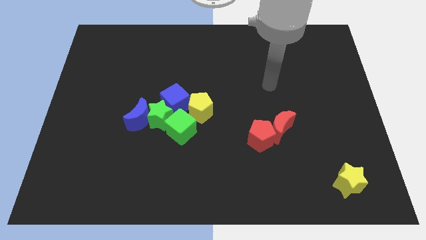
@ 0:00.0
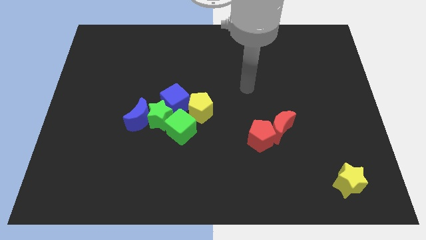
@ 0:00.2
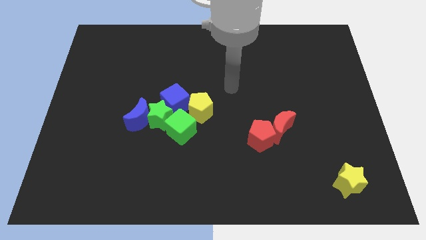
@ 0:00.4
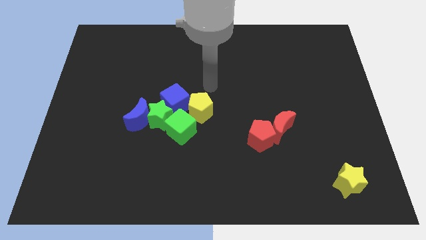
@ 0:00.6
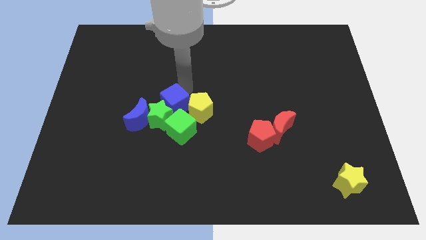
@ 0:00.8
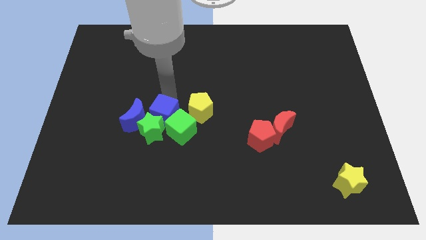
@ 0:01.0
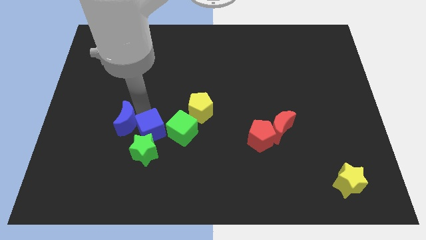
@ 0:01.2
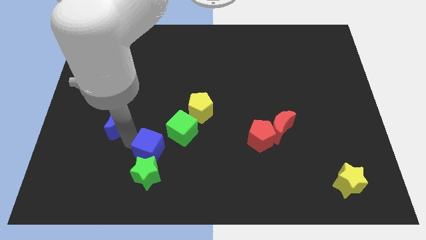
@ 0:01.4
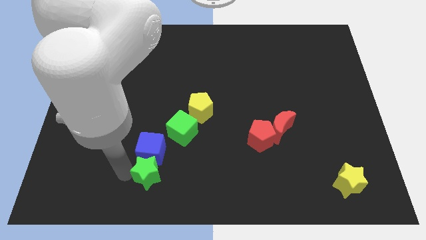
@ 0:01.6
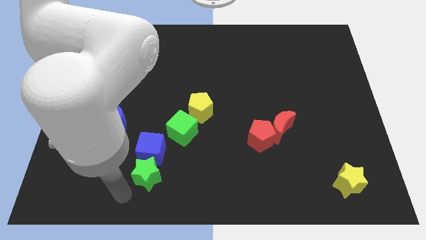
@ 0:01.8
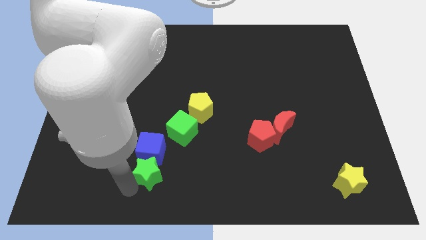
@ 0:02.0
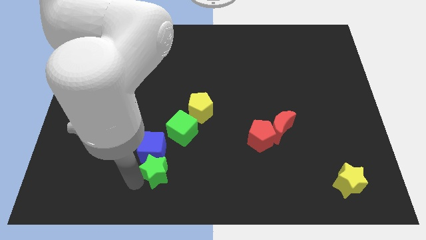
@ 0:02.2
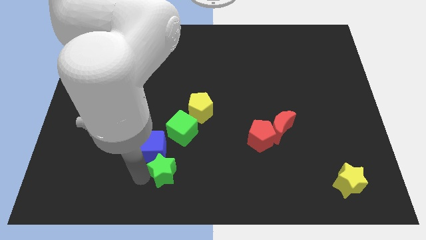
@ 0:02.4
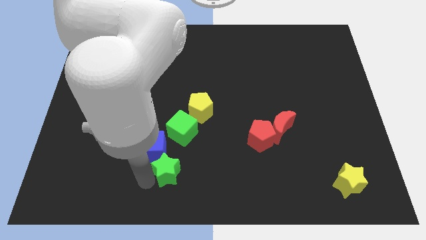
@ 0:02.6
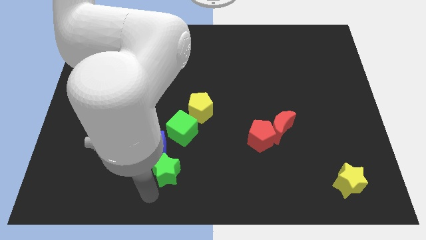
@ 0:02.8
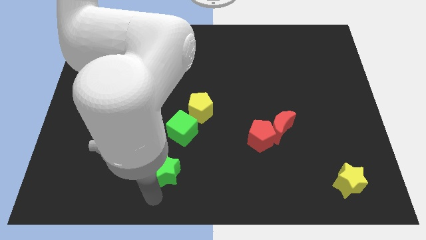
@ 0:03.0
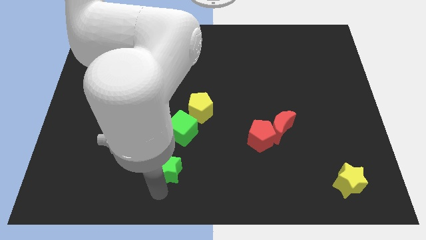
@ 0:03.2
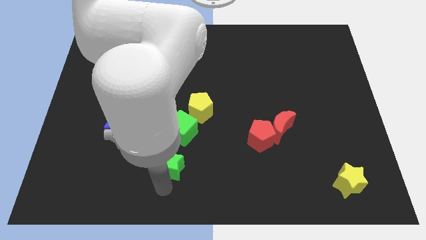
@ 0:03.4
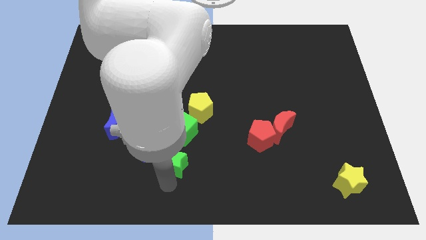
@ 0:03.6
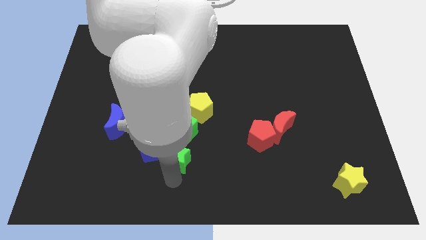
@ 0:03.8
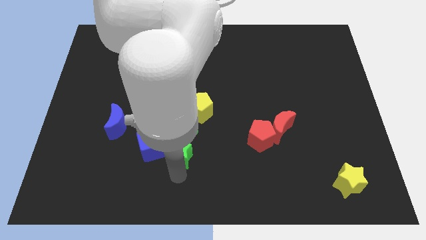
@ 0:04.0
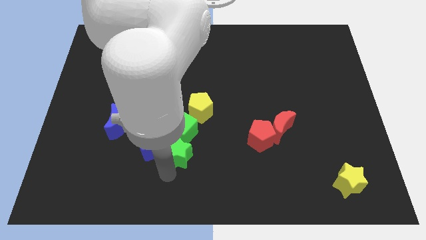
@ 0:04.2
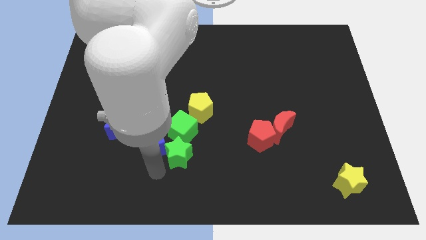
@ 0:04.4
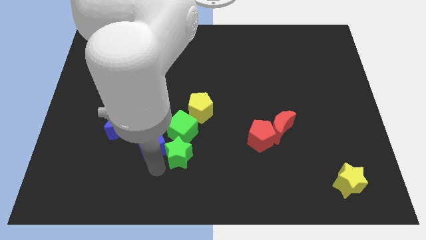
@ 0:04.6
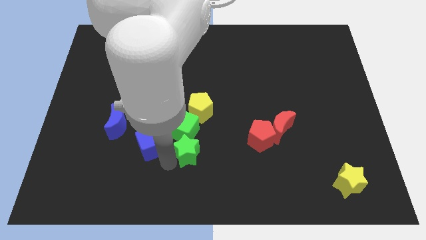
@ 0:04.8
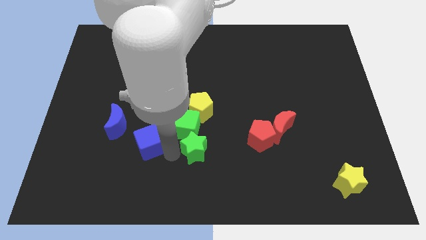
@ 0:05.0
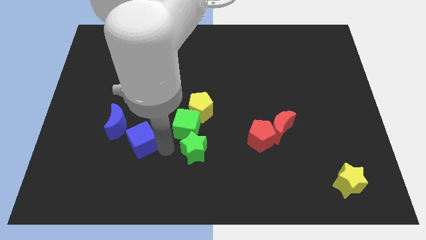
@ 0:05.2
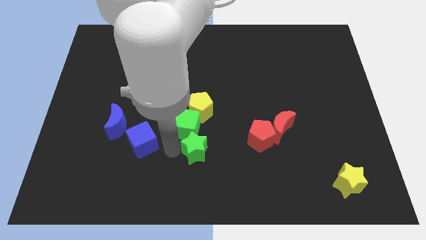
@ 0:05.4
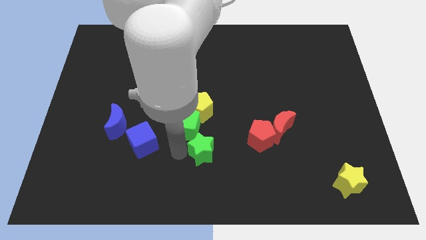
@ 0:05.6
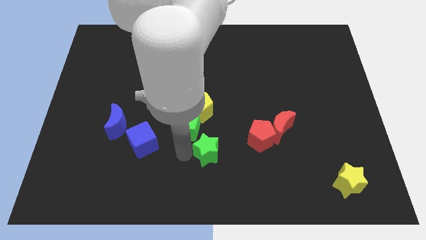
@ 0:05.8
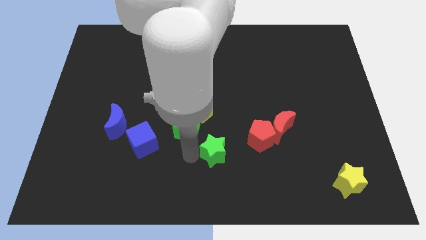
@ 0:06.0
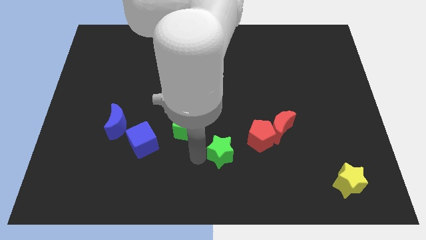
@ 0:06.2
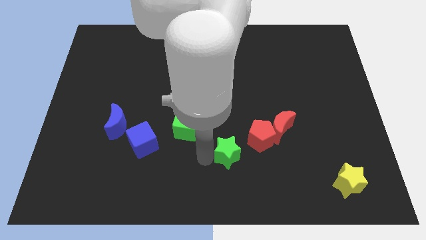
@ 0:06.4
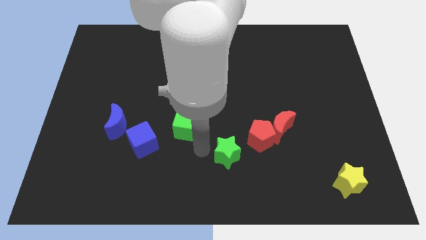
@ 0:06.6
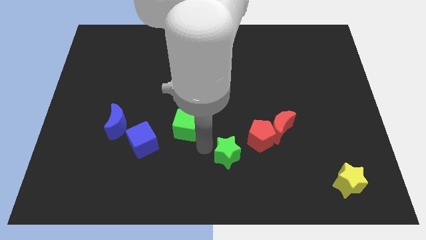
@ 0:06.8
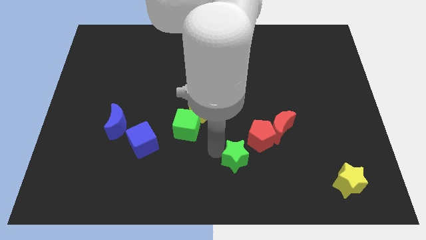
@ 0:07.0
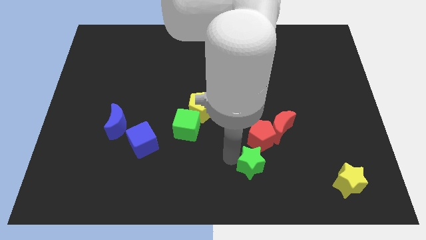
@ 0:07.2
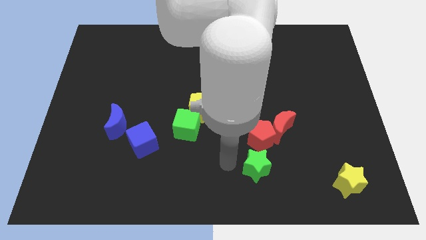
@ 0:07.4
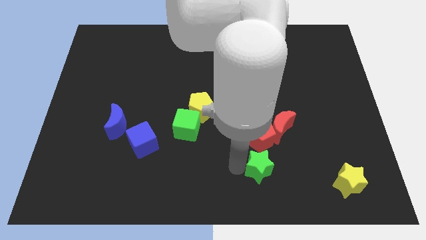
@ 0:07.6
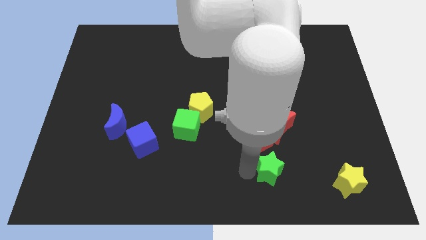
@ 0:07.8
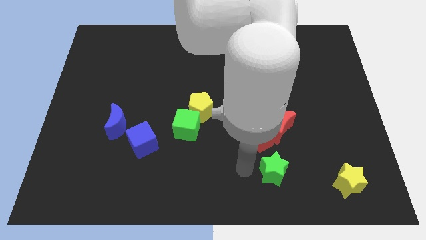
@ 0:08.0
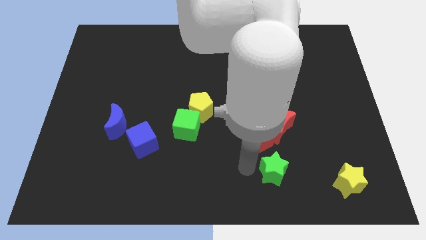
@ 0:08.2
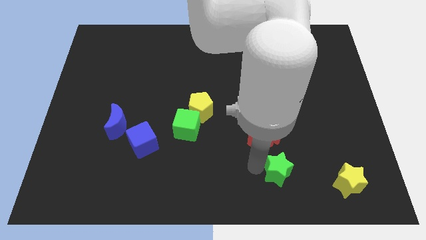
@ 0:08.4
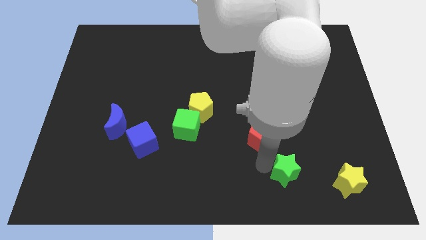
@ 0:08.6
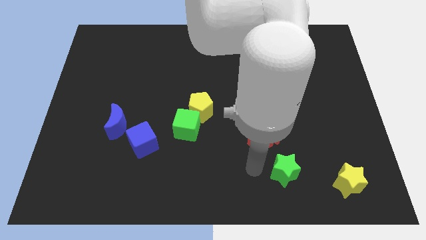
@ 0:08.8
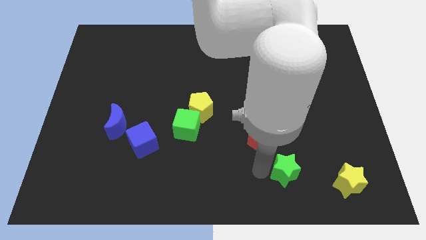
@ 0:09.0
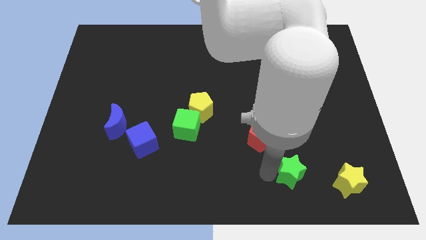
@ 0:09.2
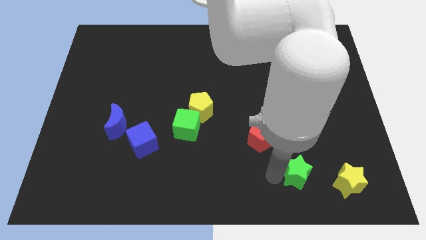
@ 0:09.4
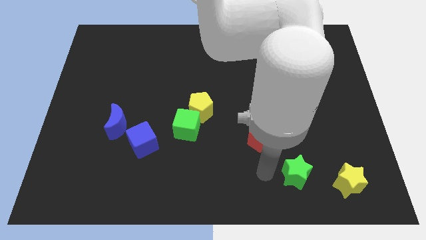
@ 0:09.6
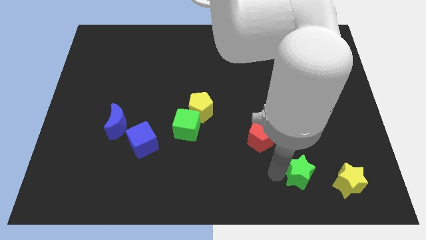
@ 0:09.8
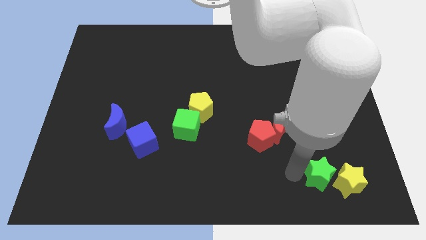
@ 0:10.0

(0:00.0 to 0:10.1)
move the green star close to the yellow star

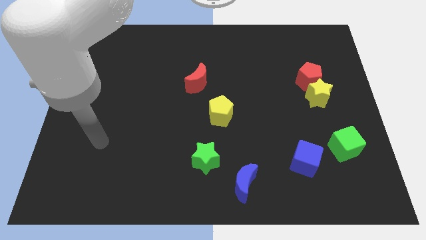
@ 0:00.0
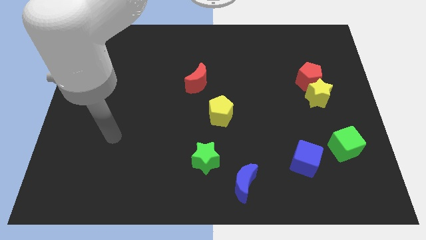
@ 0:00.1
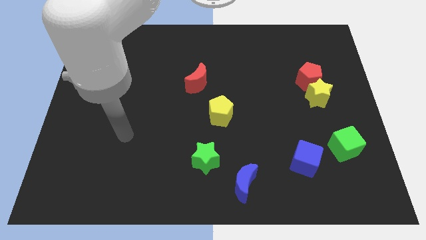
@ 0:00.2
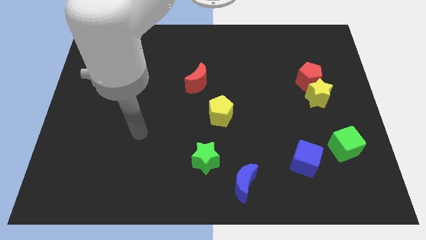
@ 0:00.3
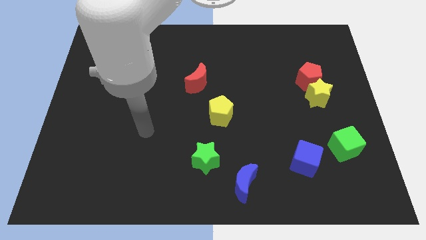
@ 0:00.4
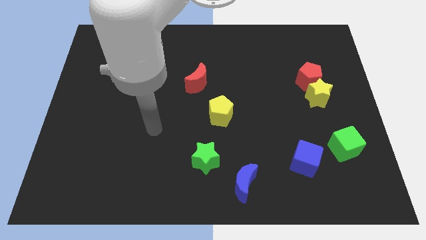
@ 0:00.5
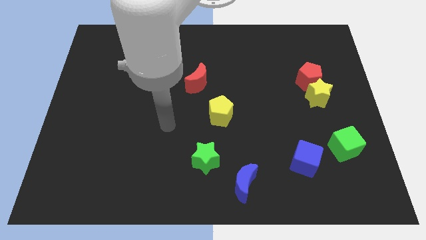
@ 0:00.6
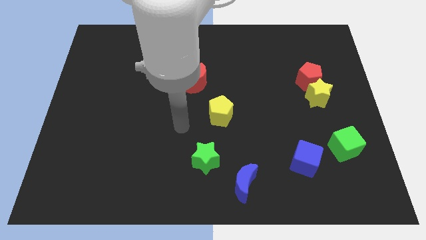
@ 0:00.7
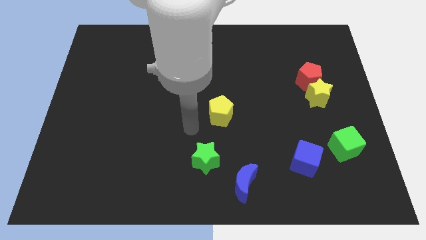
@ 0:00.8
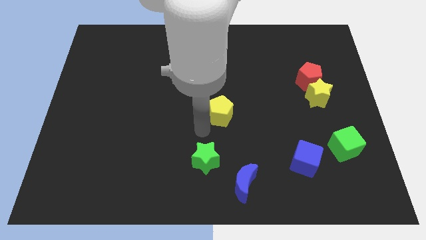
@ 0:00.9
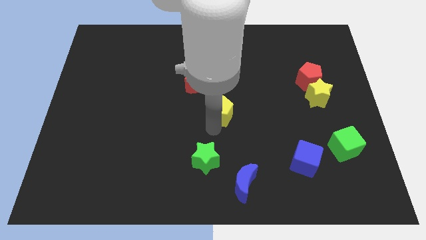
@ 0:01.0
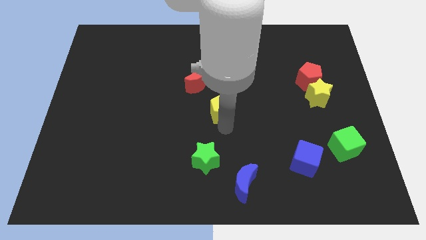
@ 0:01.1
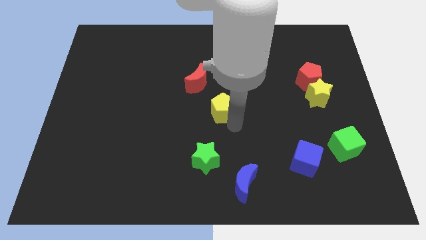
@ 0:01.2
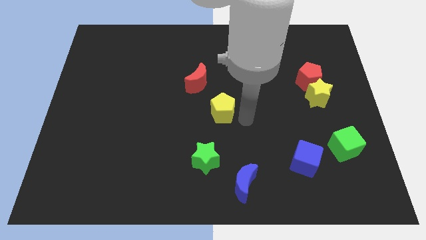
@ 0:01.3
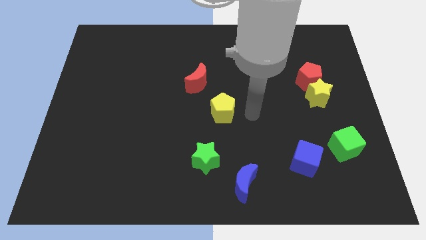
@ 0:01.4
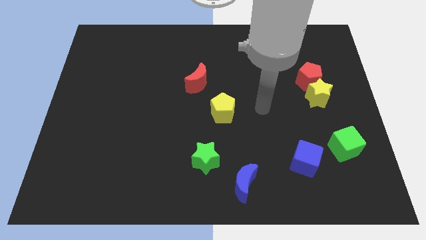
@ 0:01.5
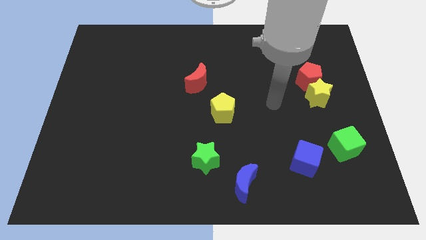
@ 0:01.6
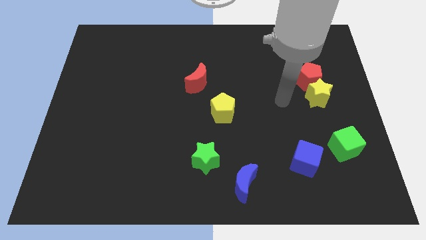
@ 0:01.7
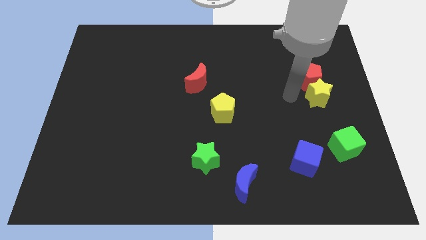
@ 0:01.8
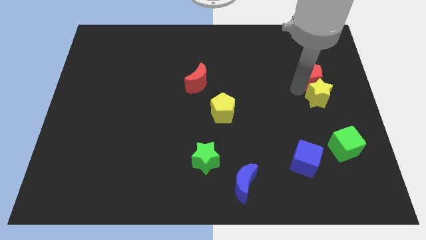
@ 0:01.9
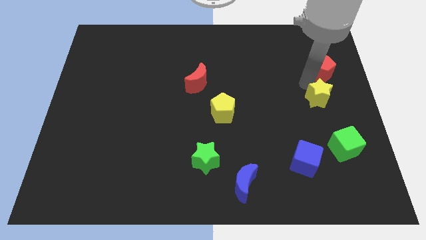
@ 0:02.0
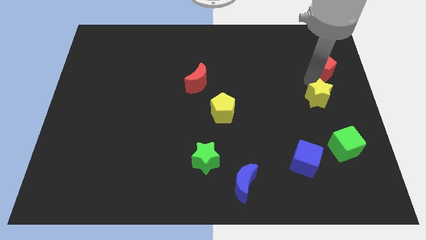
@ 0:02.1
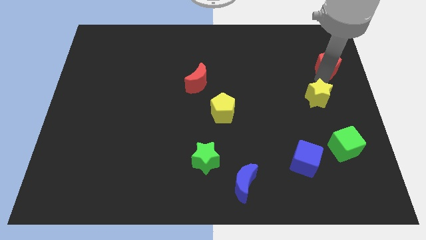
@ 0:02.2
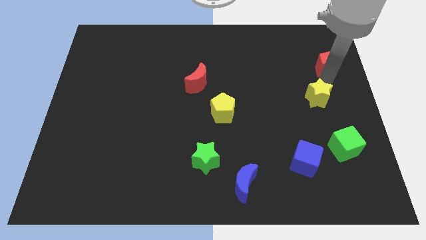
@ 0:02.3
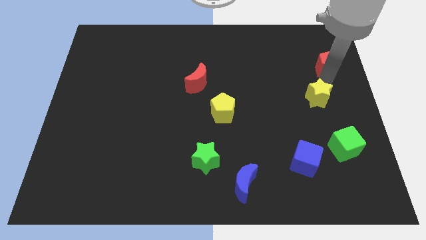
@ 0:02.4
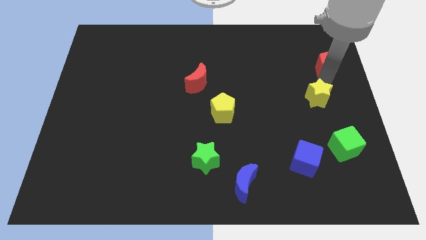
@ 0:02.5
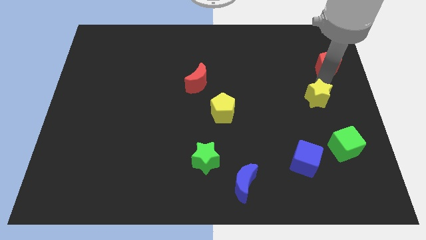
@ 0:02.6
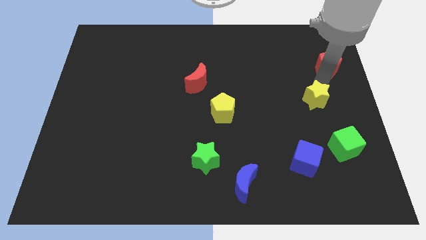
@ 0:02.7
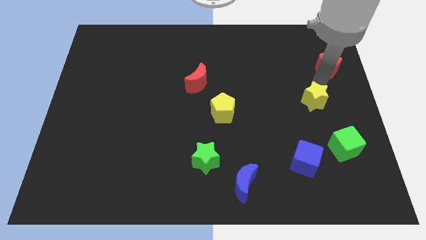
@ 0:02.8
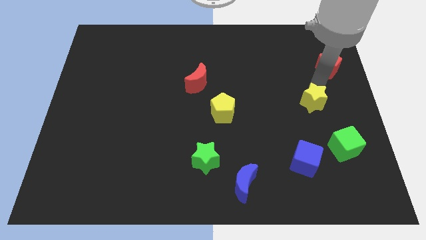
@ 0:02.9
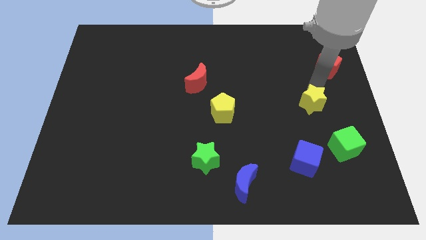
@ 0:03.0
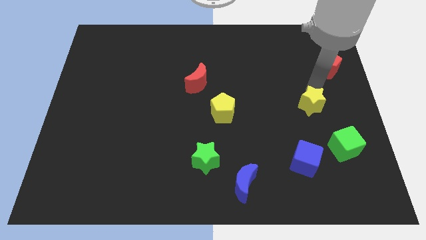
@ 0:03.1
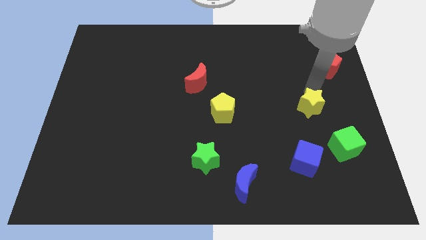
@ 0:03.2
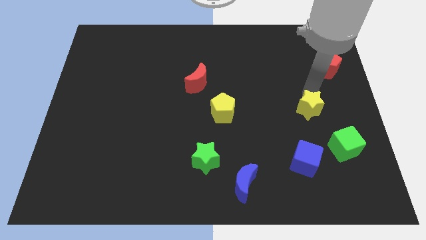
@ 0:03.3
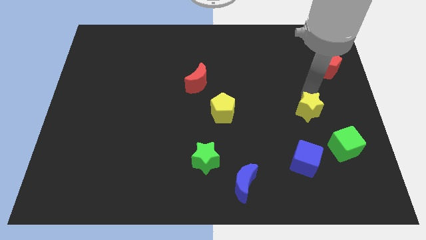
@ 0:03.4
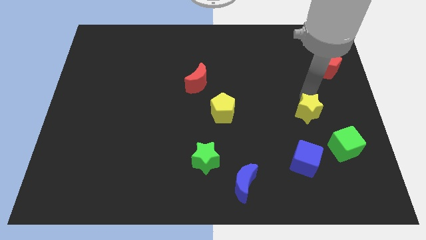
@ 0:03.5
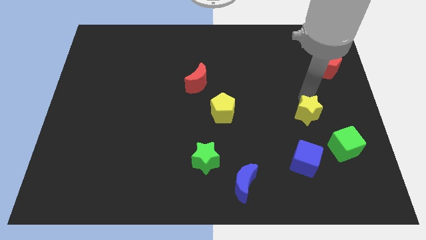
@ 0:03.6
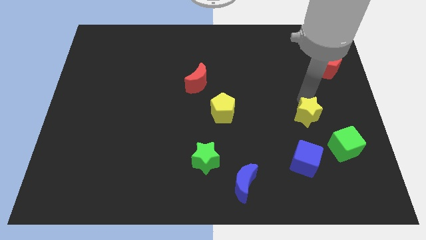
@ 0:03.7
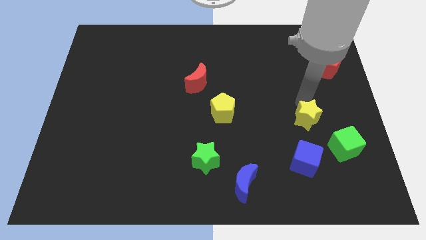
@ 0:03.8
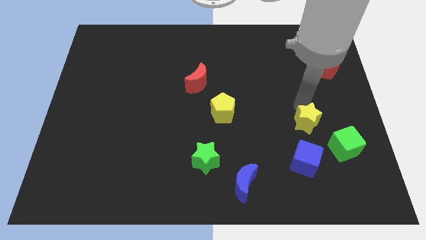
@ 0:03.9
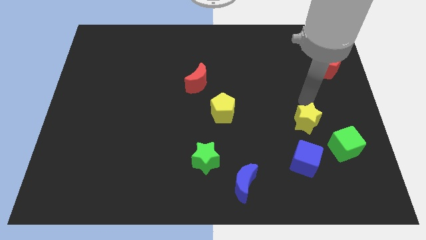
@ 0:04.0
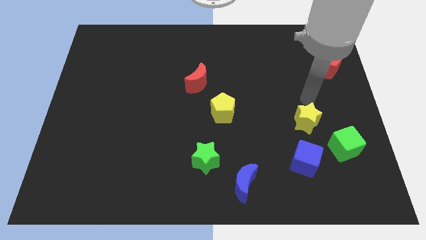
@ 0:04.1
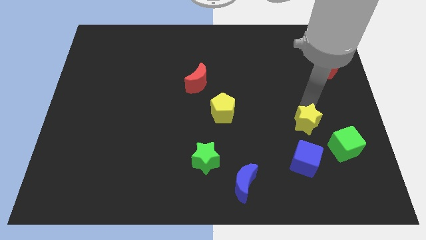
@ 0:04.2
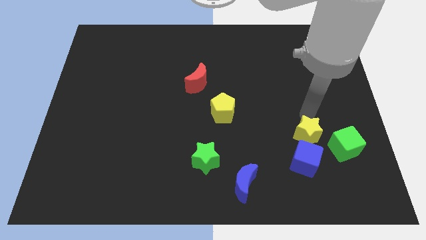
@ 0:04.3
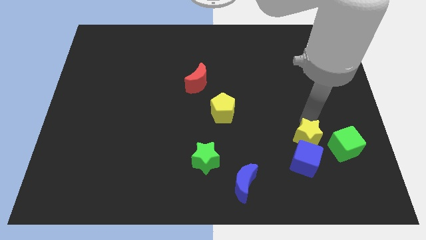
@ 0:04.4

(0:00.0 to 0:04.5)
push the yellow star close to the blue cube
